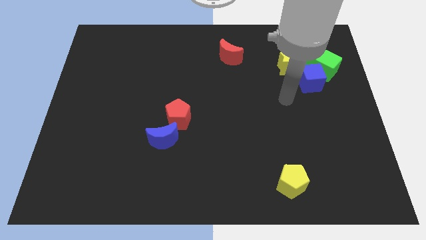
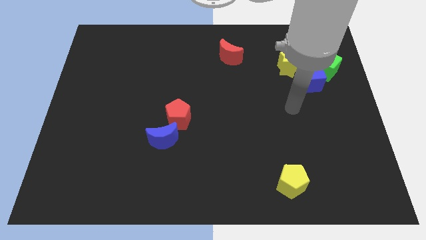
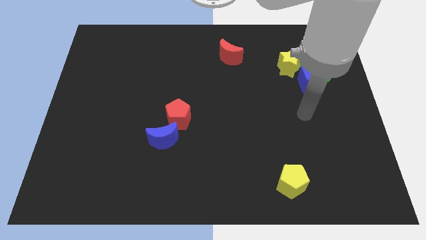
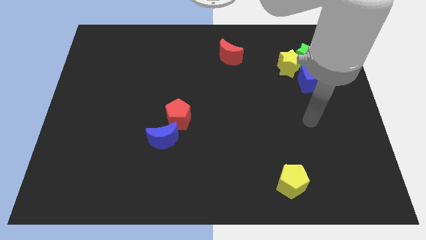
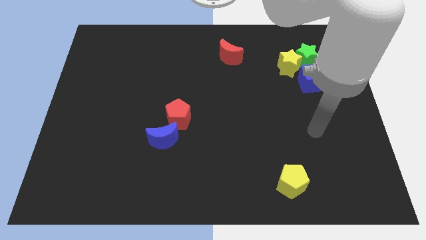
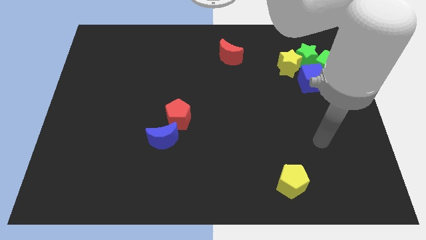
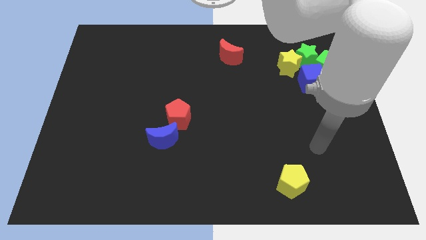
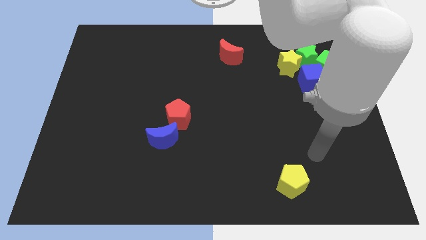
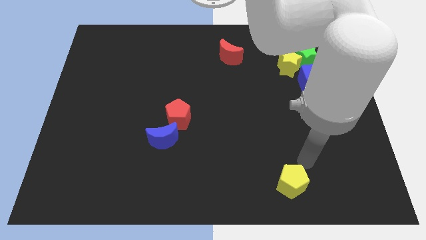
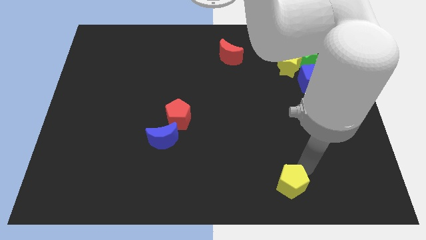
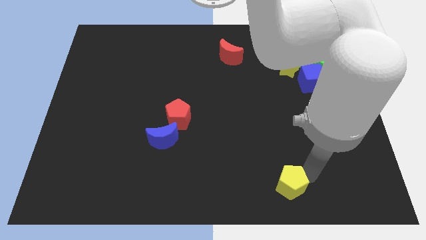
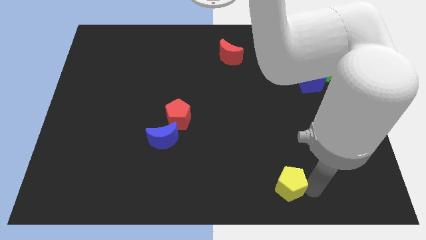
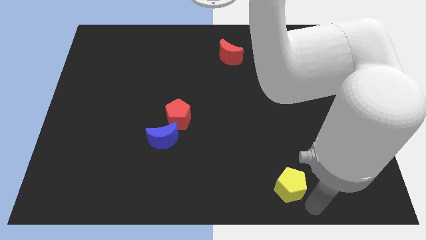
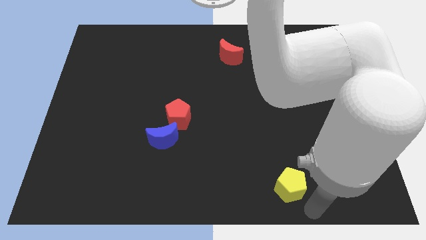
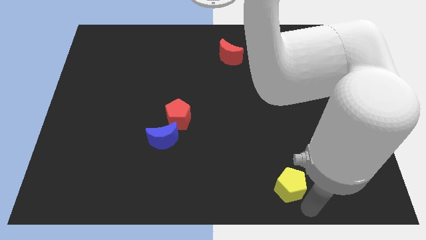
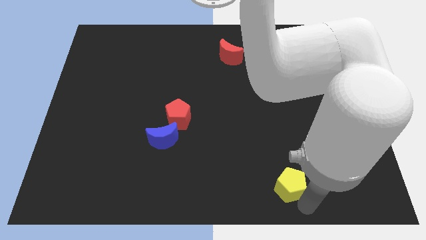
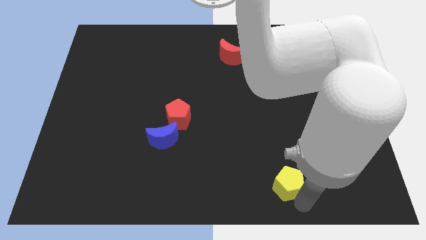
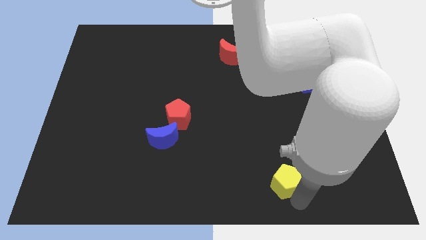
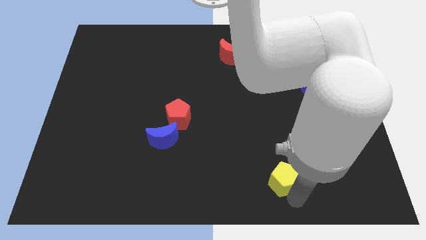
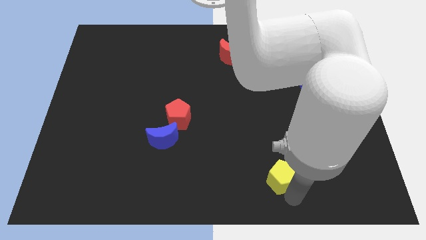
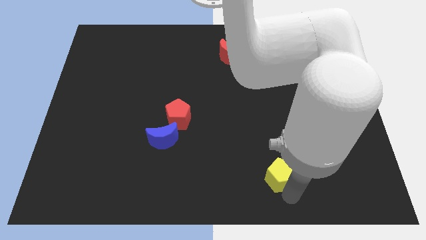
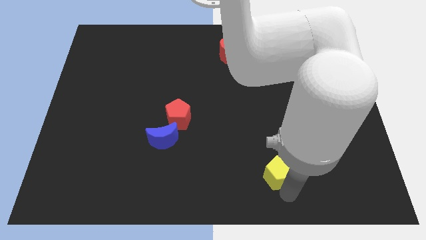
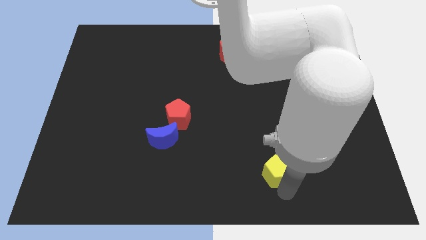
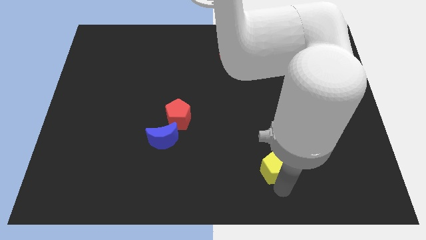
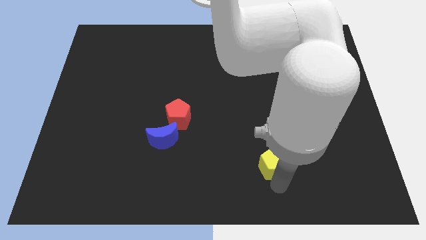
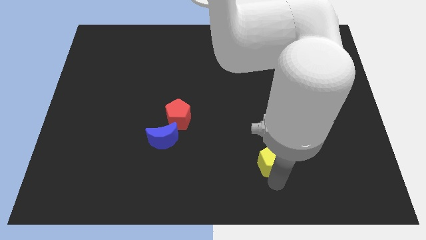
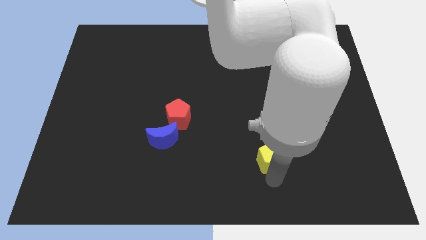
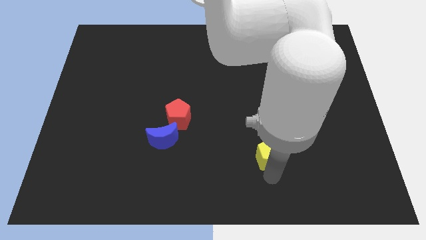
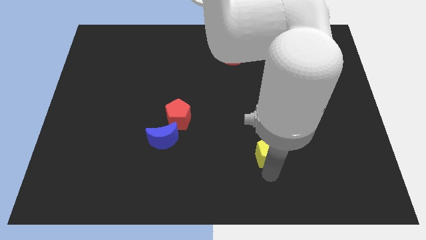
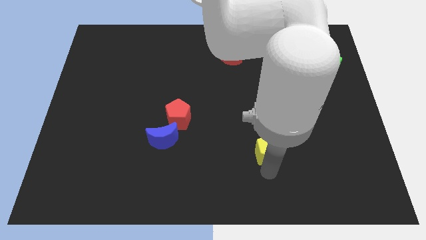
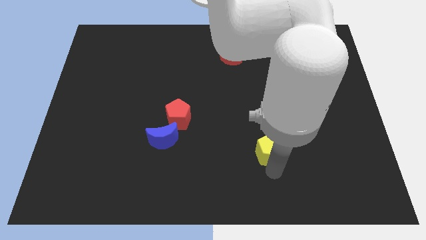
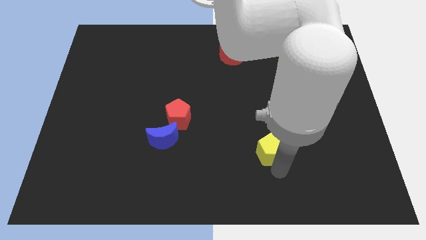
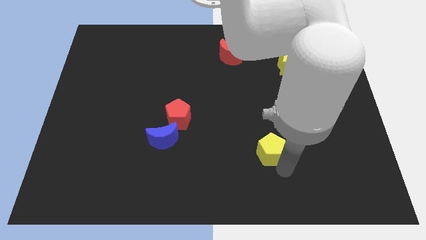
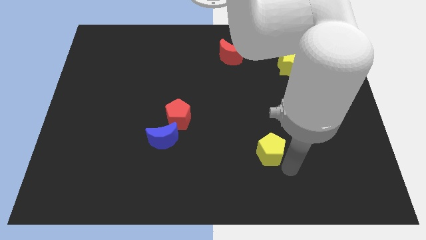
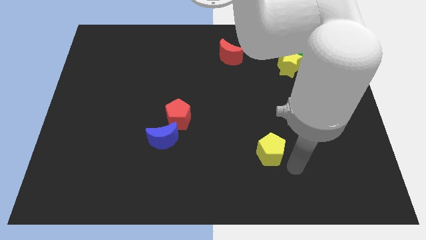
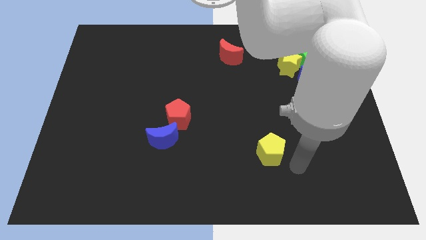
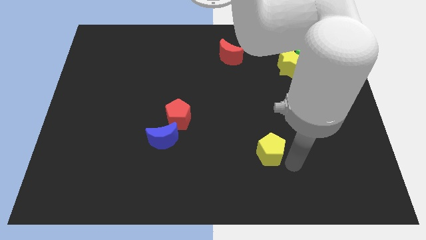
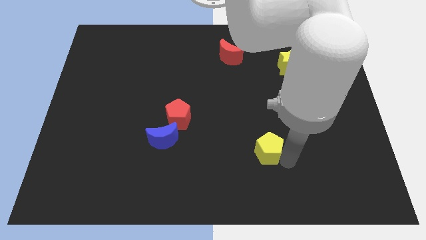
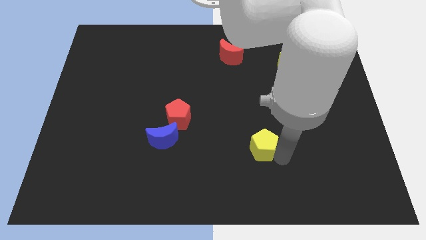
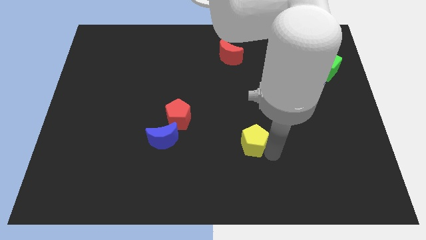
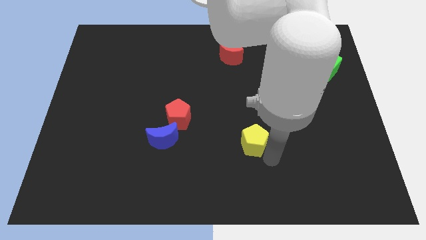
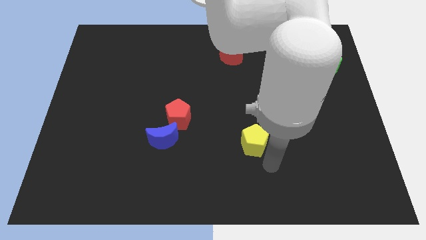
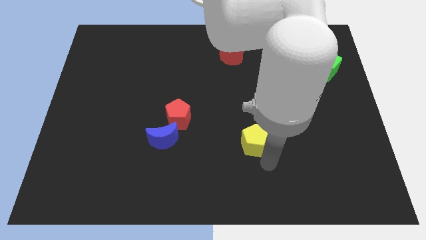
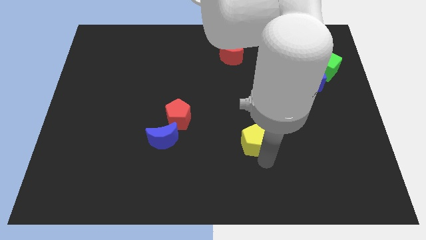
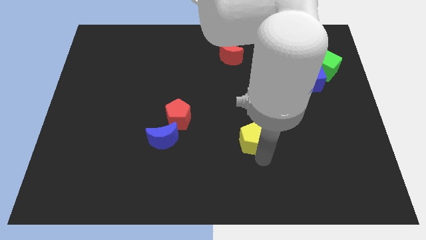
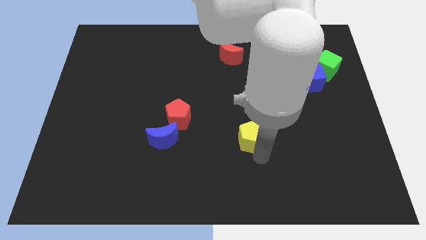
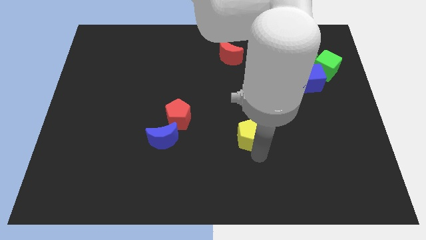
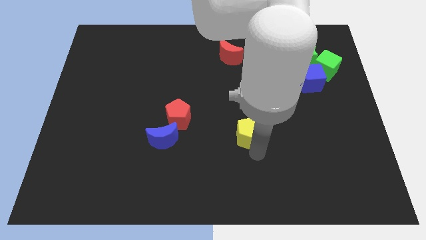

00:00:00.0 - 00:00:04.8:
put the yellow pentagon to the center of the board

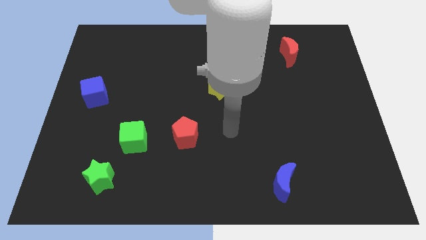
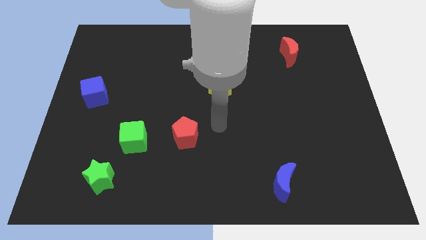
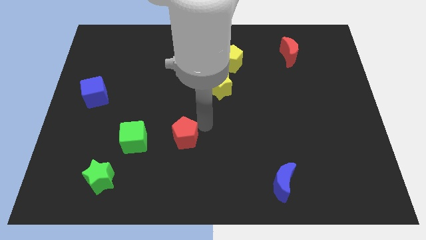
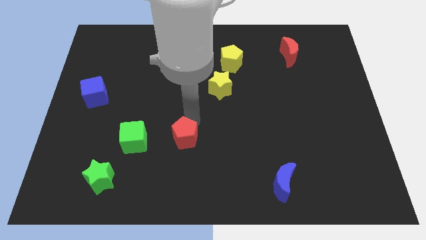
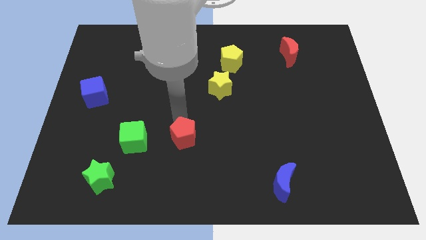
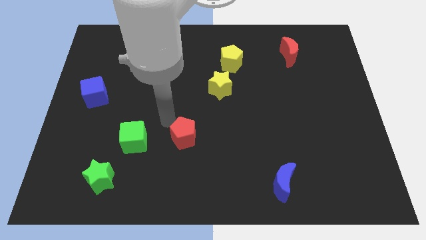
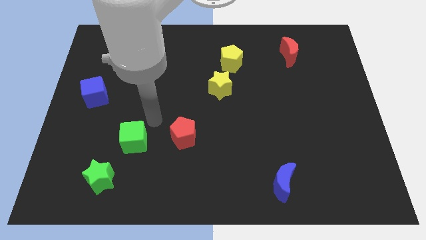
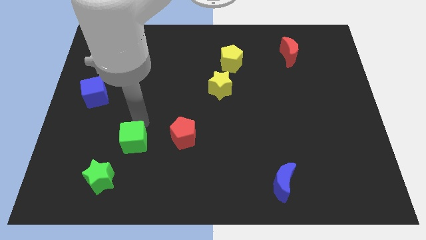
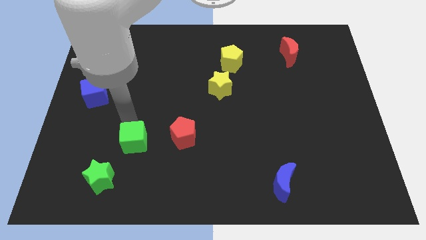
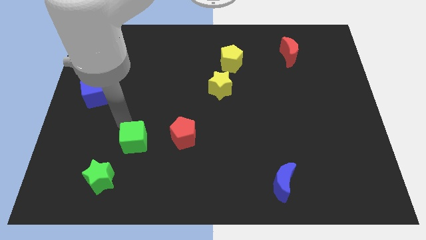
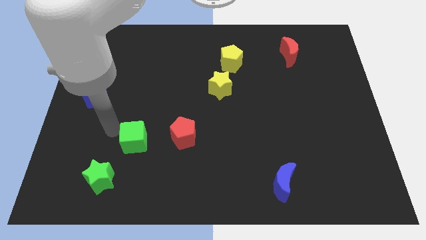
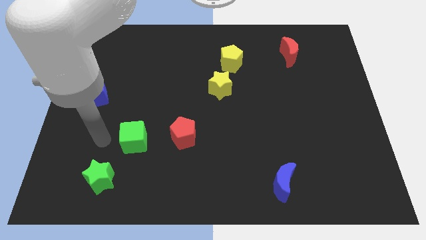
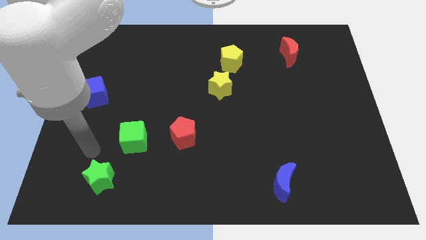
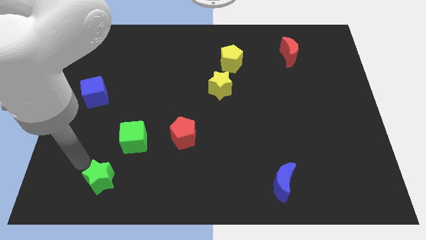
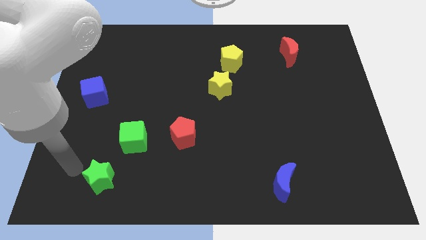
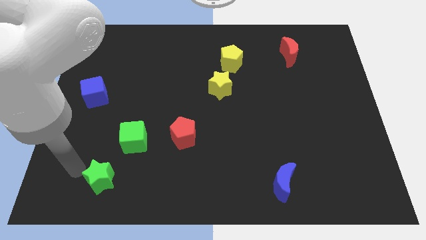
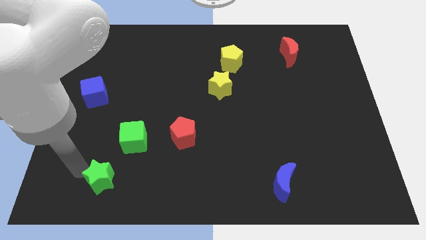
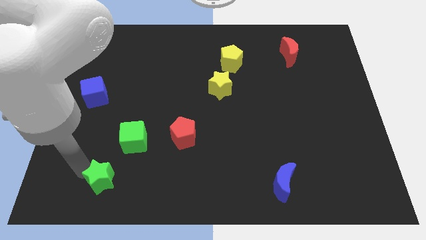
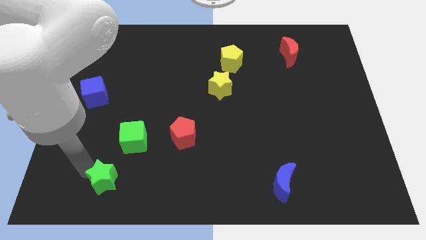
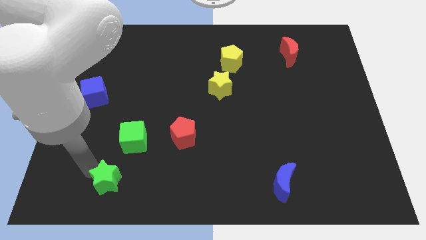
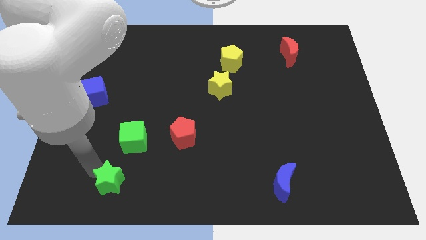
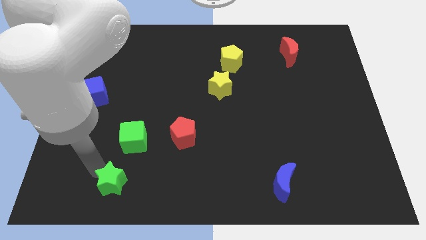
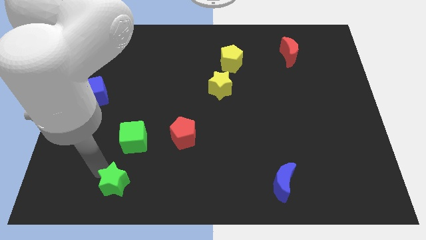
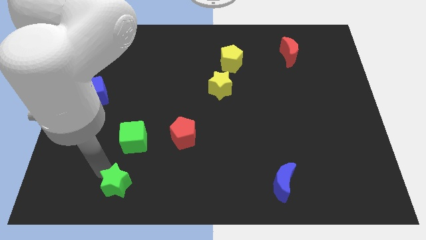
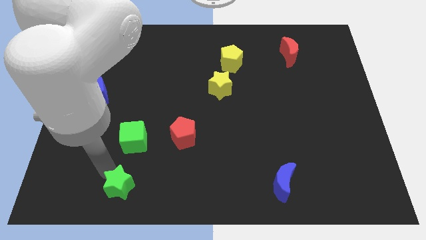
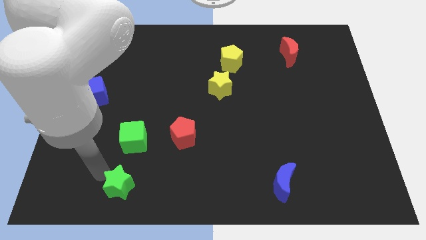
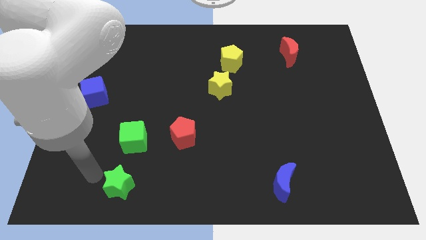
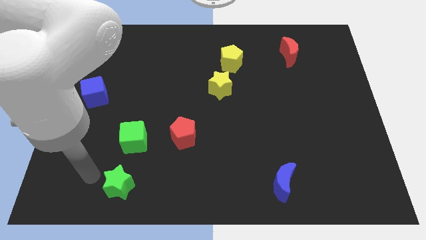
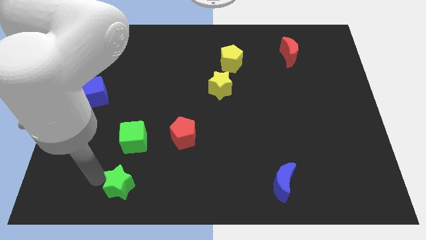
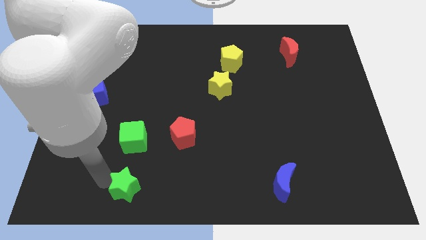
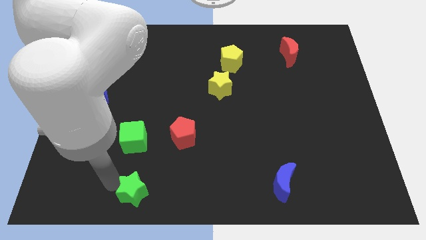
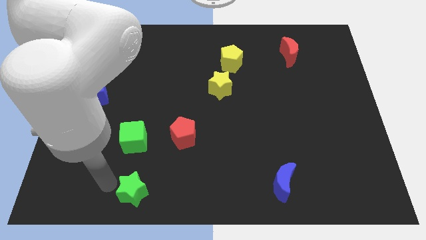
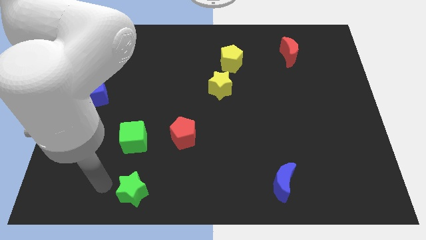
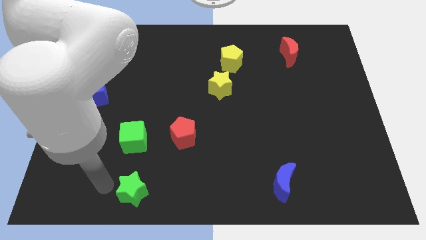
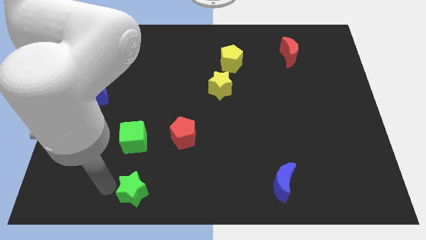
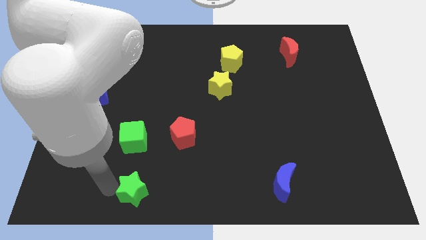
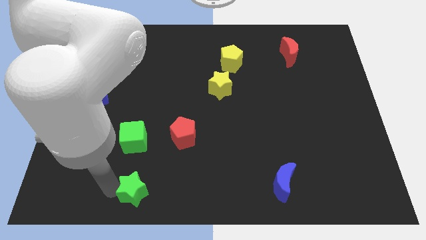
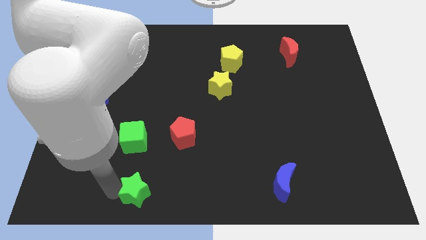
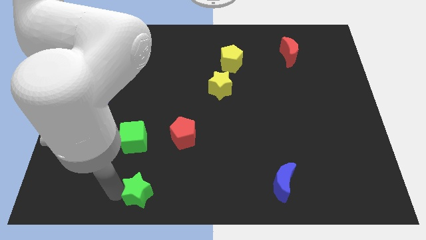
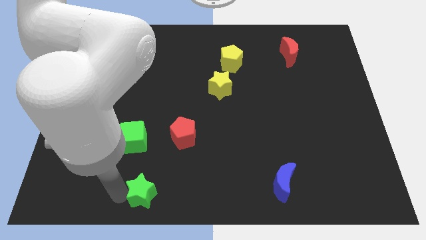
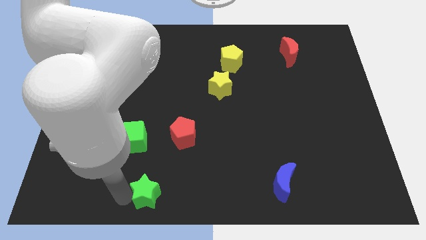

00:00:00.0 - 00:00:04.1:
push the green star to the bottom
